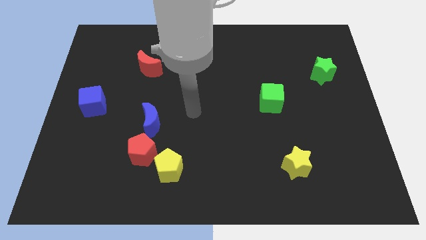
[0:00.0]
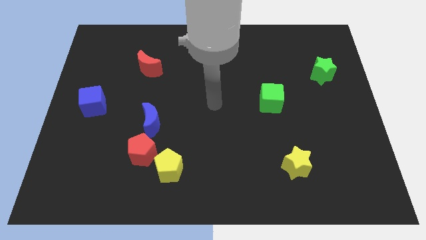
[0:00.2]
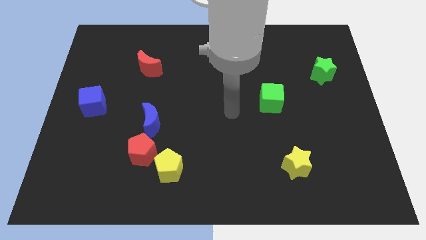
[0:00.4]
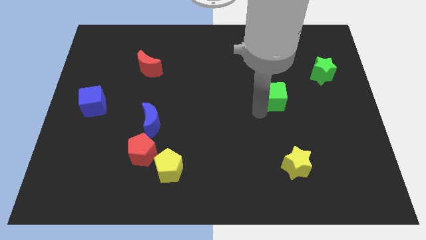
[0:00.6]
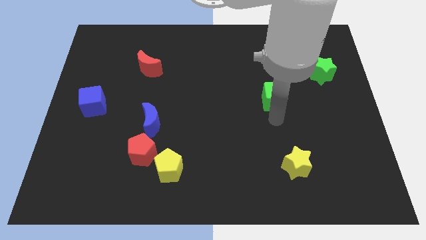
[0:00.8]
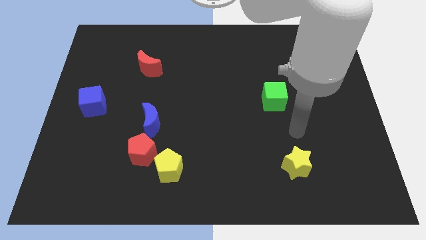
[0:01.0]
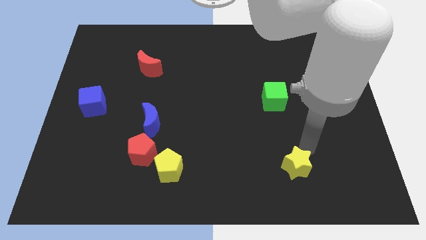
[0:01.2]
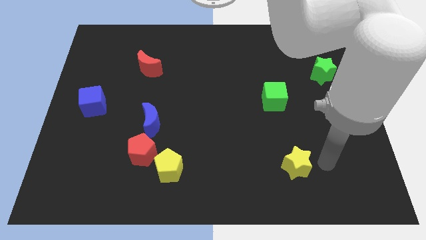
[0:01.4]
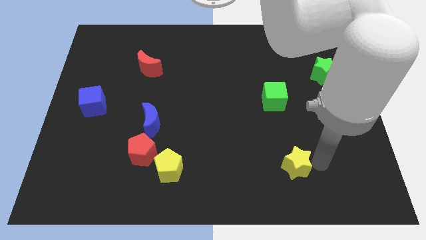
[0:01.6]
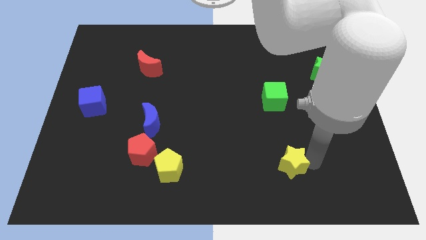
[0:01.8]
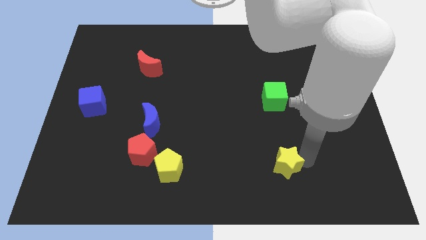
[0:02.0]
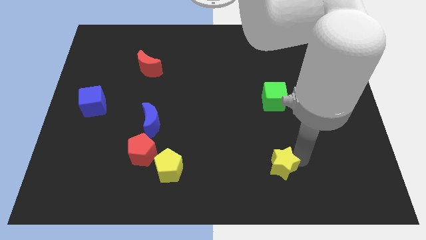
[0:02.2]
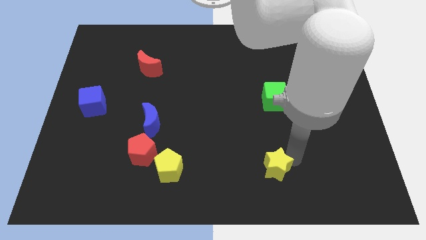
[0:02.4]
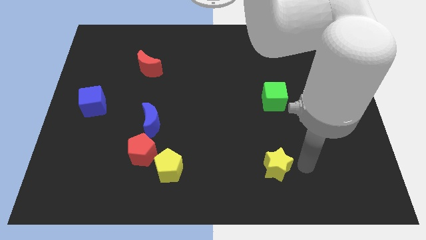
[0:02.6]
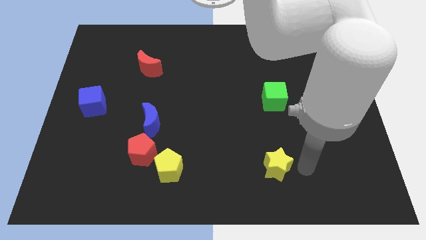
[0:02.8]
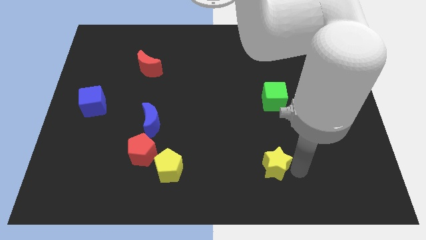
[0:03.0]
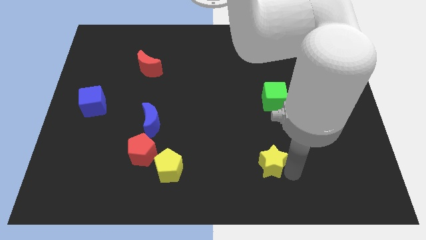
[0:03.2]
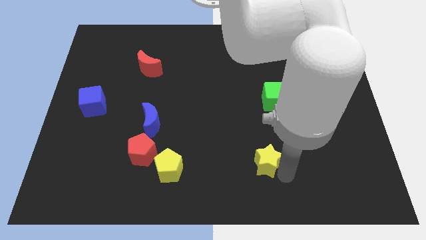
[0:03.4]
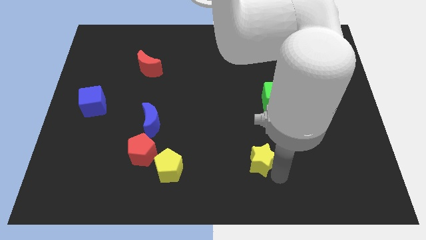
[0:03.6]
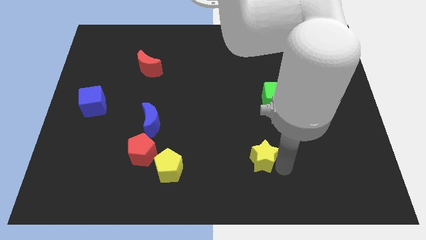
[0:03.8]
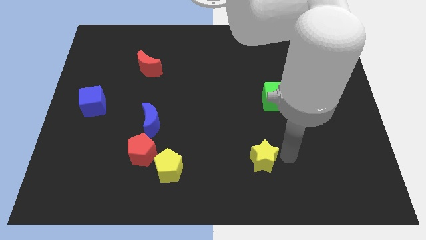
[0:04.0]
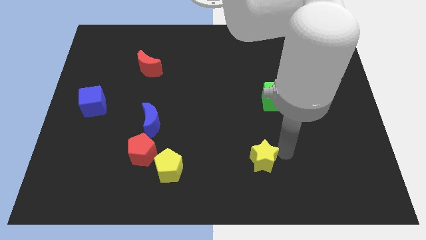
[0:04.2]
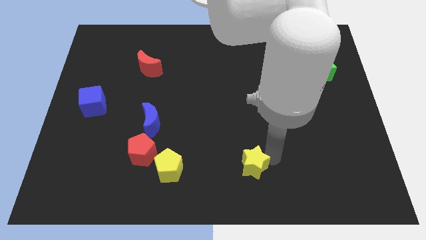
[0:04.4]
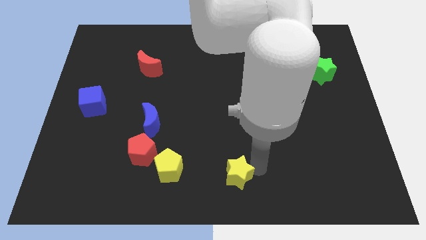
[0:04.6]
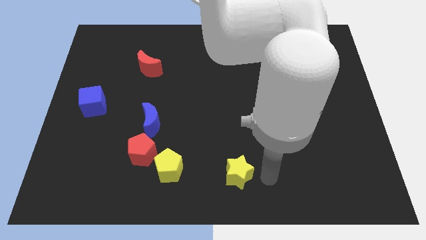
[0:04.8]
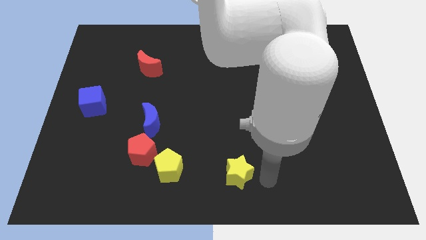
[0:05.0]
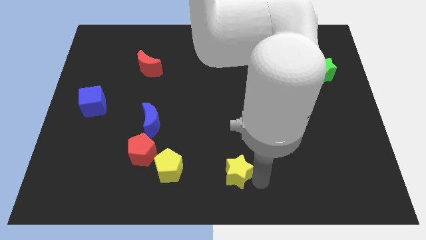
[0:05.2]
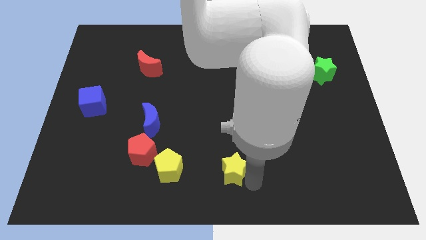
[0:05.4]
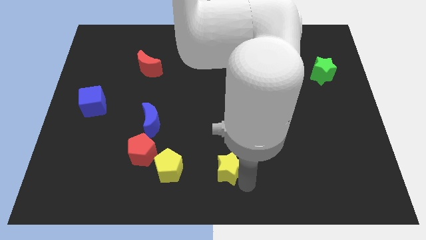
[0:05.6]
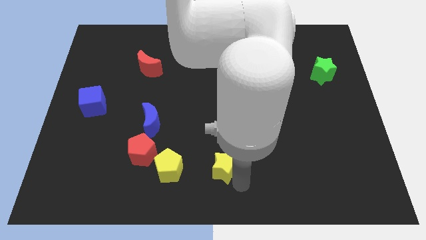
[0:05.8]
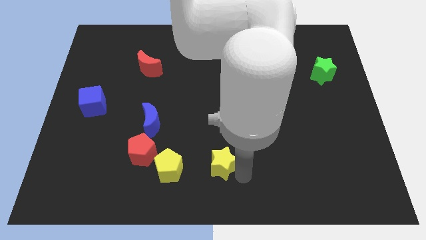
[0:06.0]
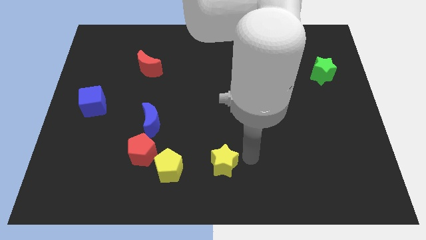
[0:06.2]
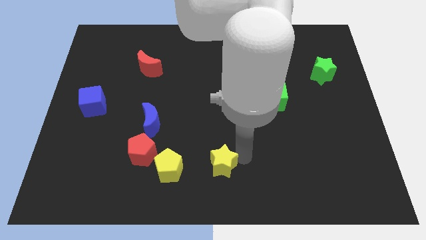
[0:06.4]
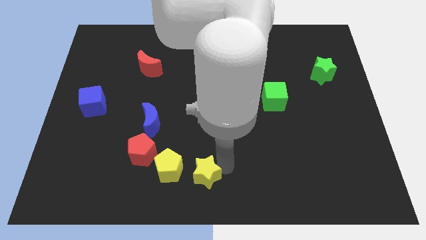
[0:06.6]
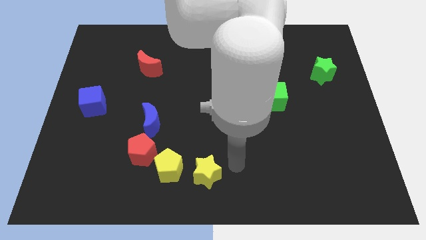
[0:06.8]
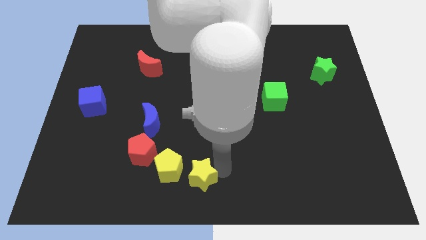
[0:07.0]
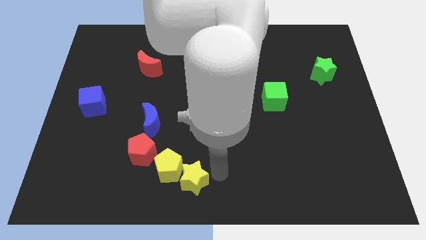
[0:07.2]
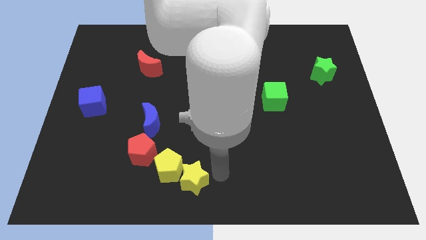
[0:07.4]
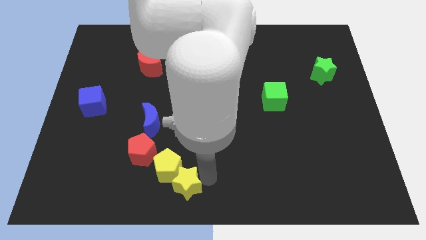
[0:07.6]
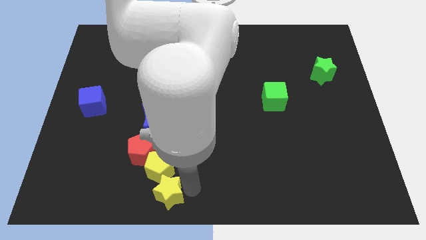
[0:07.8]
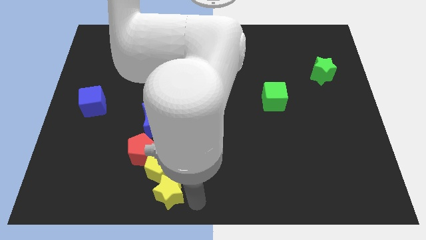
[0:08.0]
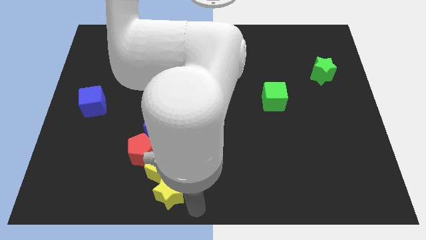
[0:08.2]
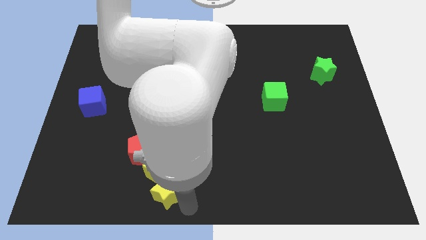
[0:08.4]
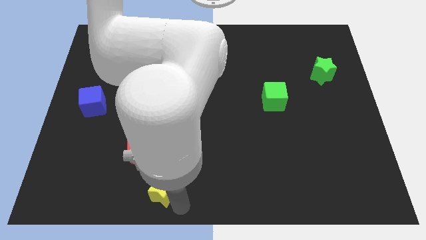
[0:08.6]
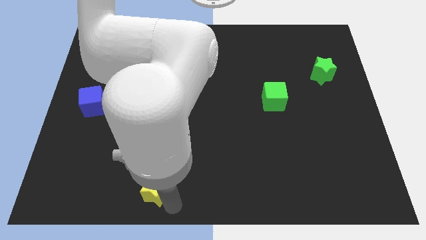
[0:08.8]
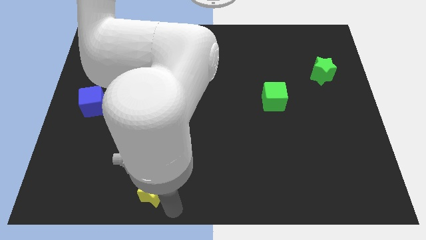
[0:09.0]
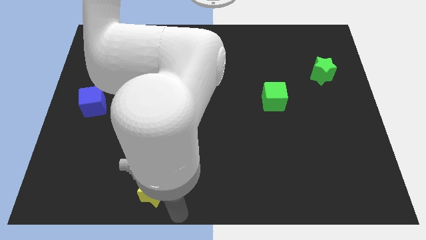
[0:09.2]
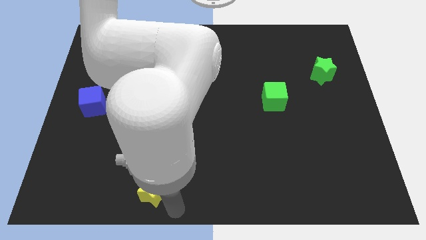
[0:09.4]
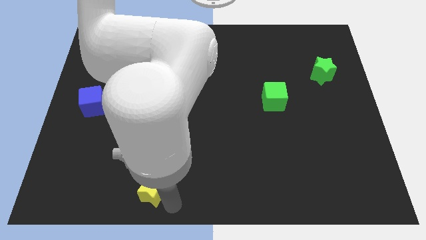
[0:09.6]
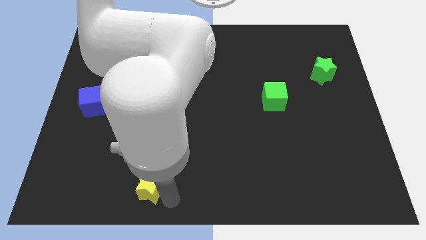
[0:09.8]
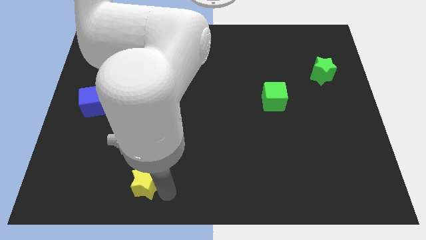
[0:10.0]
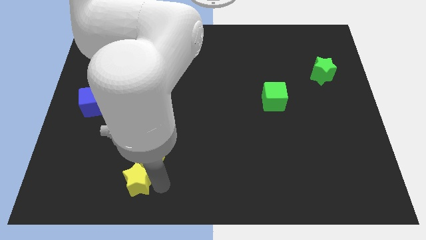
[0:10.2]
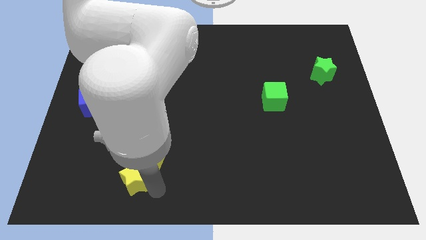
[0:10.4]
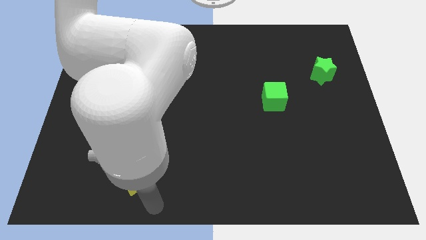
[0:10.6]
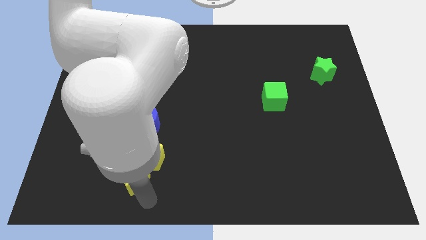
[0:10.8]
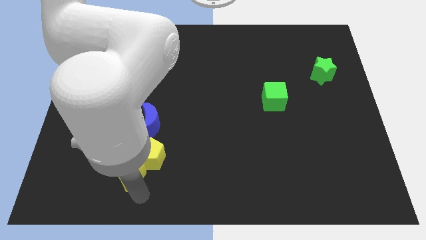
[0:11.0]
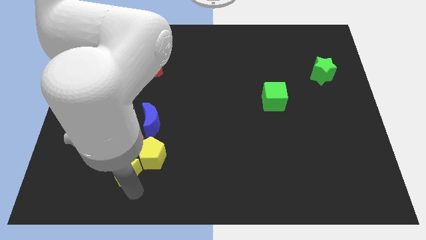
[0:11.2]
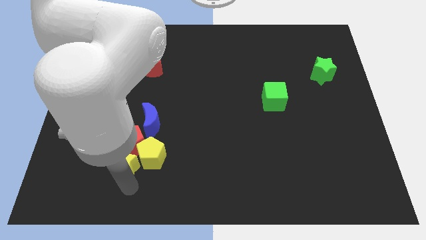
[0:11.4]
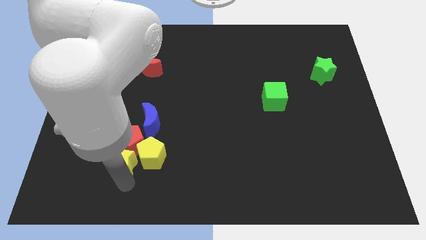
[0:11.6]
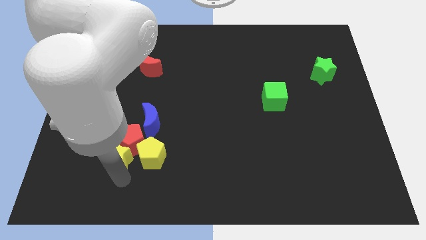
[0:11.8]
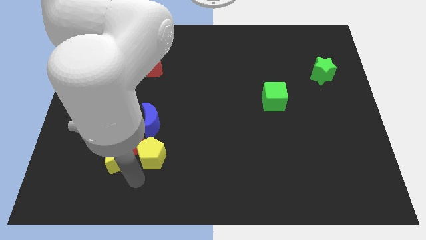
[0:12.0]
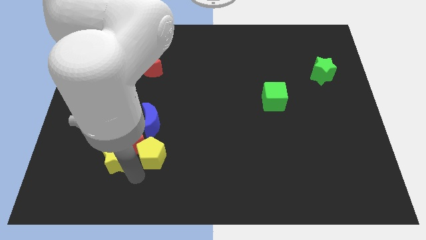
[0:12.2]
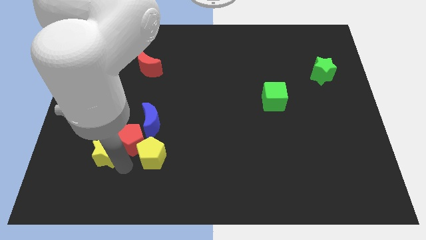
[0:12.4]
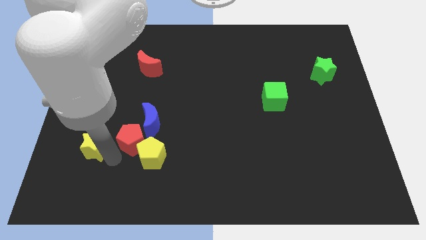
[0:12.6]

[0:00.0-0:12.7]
slide the yellow star to the bottom of the blue cube

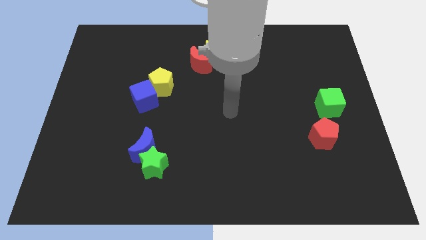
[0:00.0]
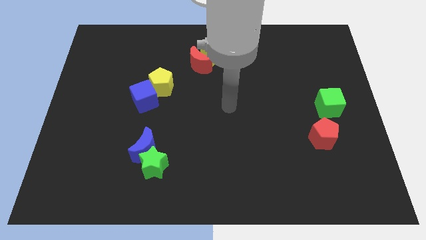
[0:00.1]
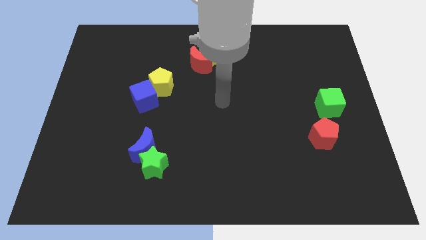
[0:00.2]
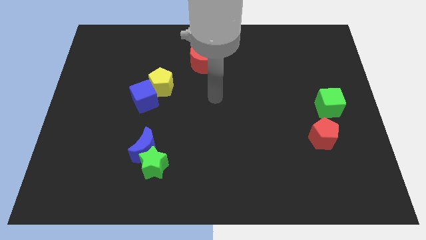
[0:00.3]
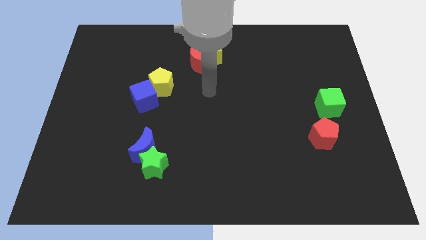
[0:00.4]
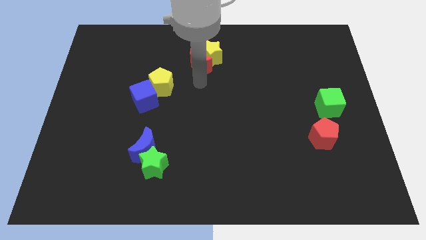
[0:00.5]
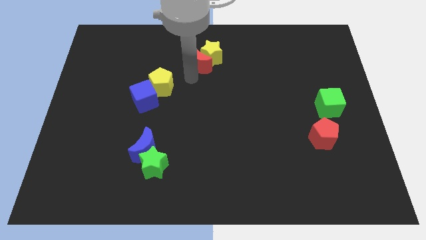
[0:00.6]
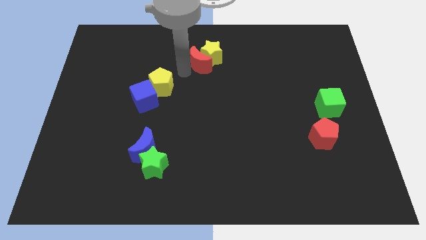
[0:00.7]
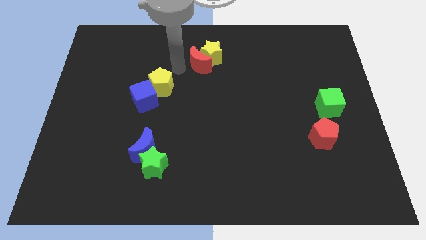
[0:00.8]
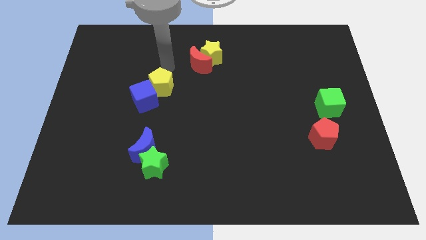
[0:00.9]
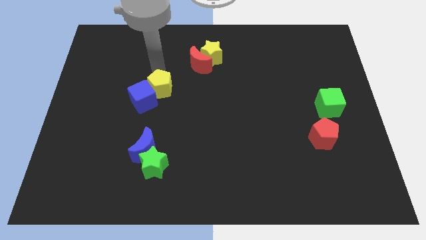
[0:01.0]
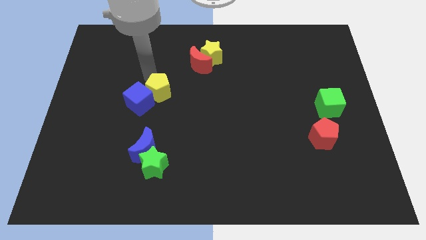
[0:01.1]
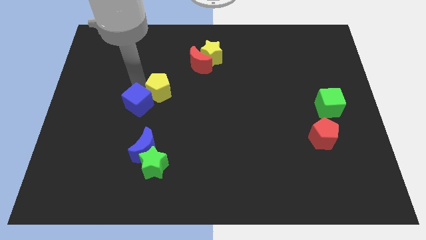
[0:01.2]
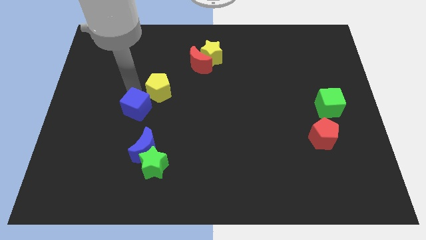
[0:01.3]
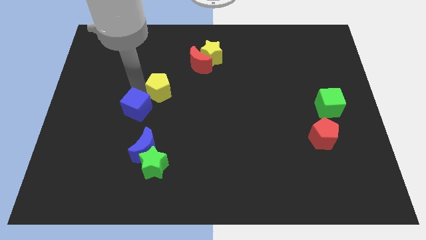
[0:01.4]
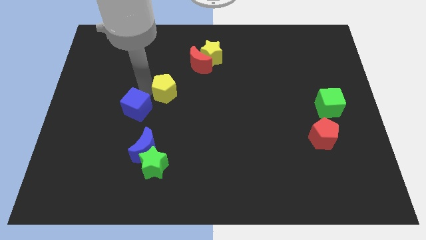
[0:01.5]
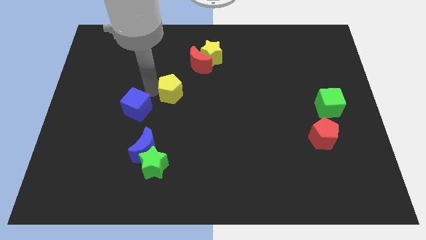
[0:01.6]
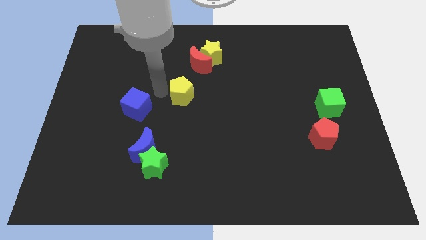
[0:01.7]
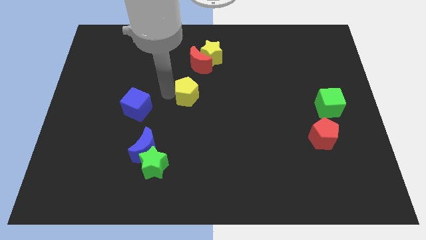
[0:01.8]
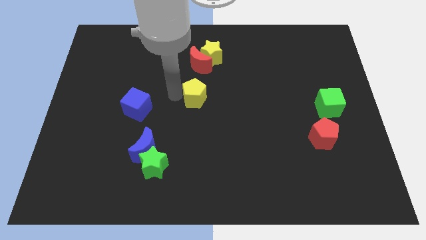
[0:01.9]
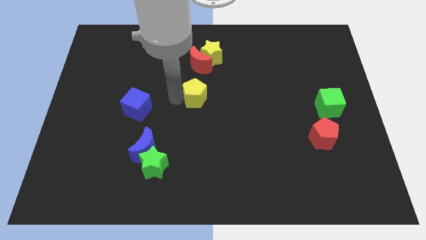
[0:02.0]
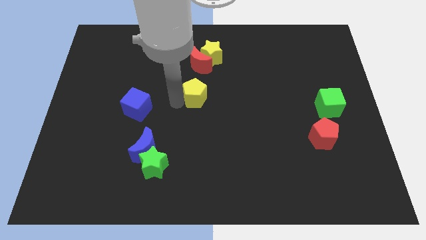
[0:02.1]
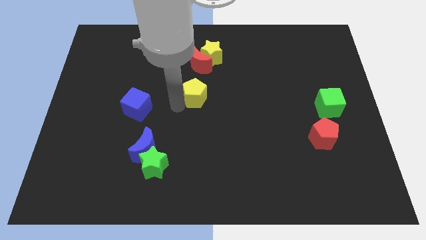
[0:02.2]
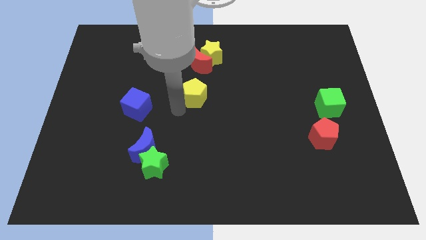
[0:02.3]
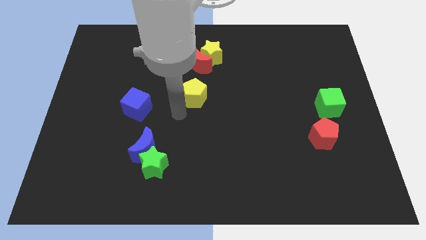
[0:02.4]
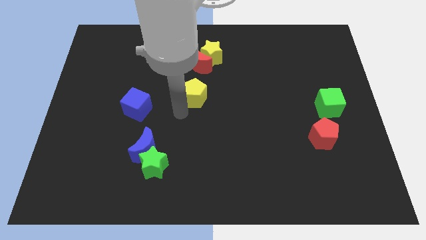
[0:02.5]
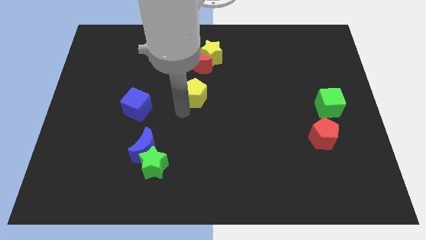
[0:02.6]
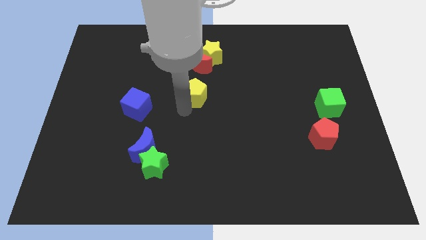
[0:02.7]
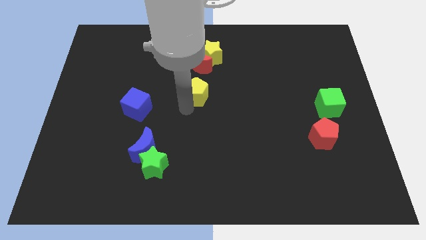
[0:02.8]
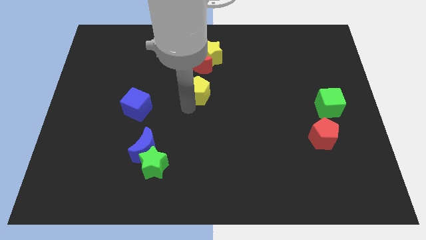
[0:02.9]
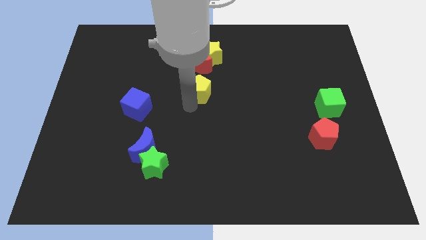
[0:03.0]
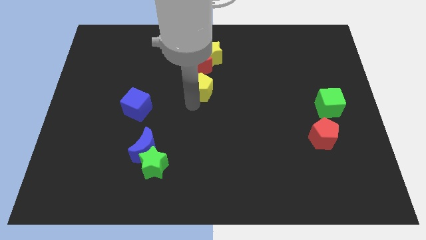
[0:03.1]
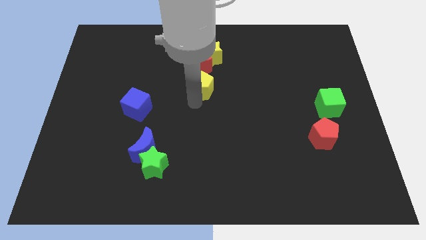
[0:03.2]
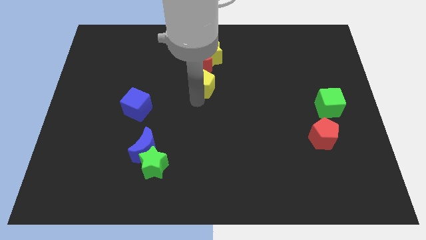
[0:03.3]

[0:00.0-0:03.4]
push the yellow pentagon diagonally down and to the right of the red moon
